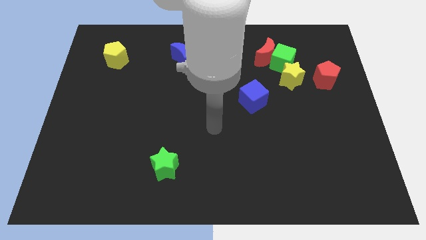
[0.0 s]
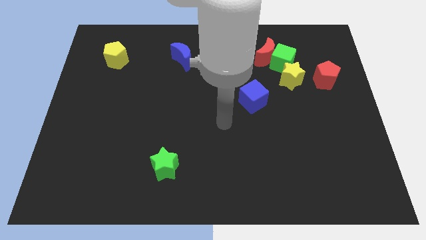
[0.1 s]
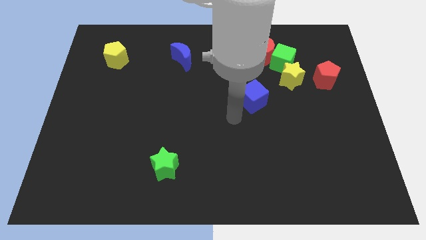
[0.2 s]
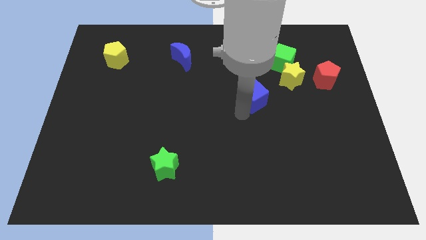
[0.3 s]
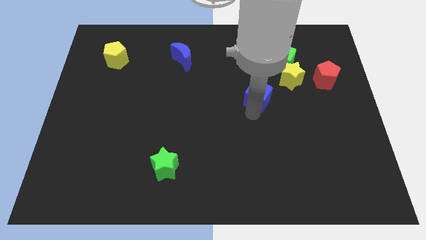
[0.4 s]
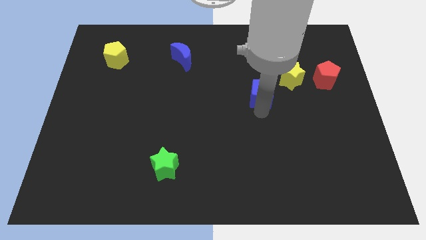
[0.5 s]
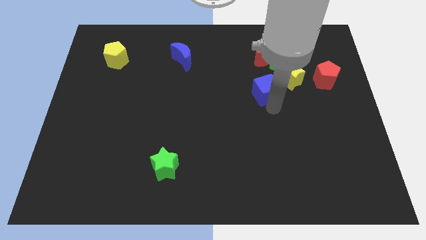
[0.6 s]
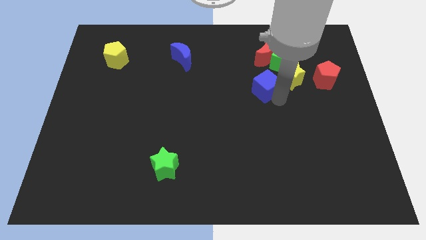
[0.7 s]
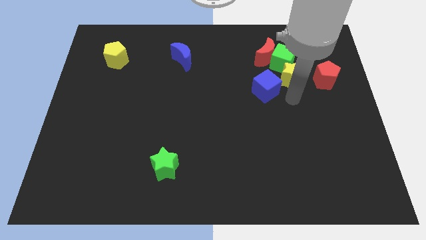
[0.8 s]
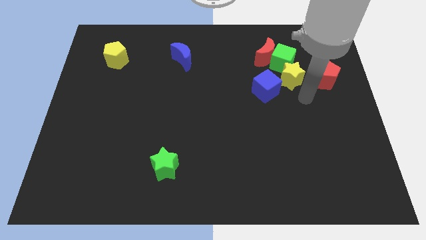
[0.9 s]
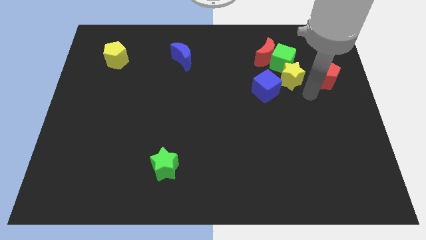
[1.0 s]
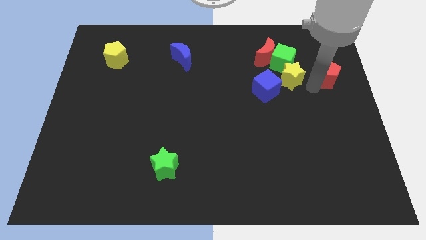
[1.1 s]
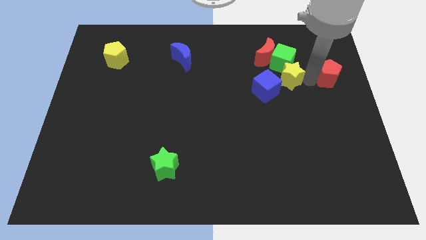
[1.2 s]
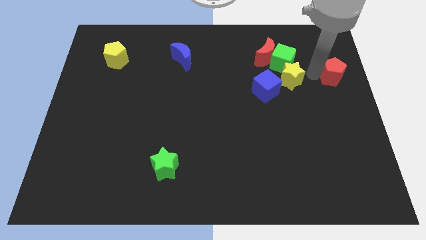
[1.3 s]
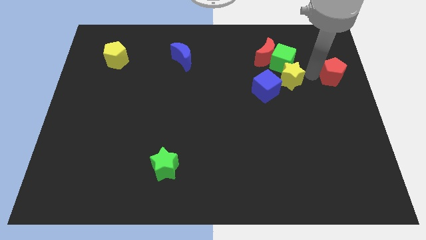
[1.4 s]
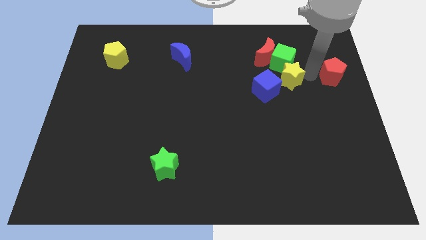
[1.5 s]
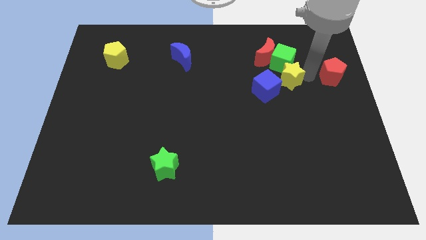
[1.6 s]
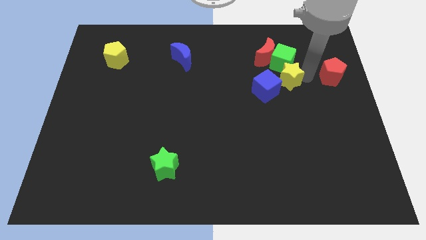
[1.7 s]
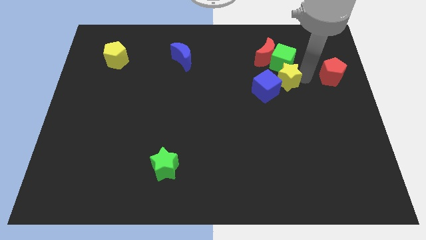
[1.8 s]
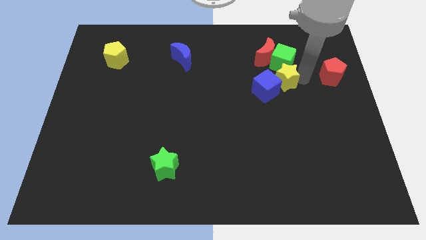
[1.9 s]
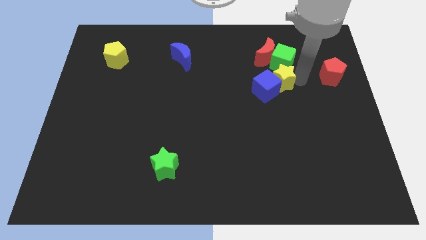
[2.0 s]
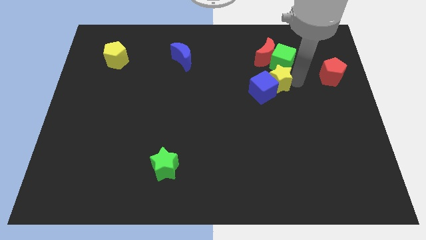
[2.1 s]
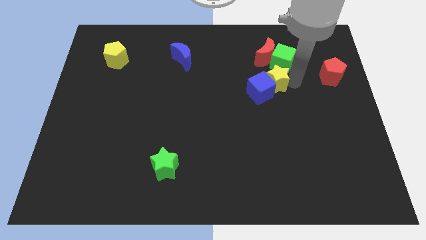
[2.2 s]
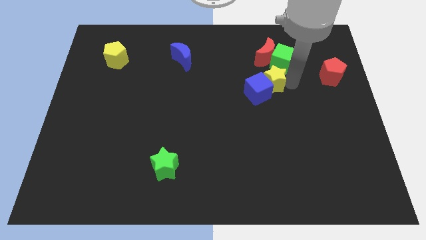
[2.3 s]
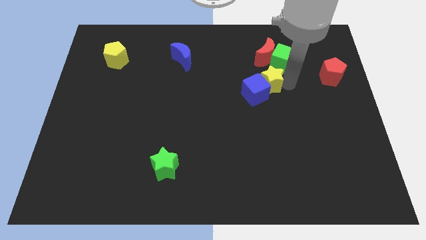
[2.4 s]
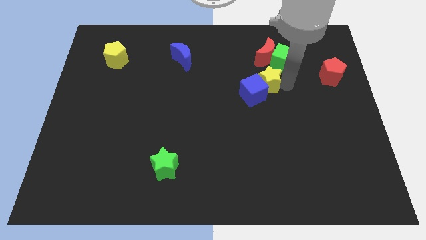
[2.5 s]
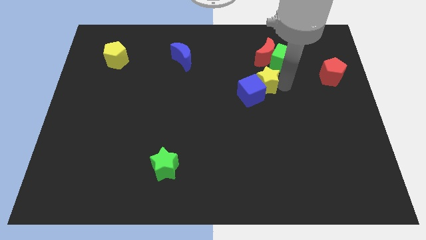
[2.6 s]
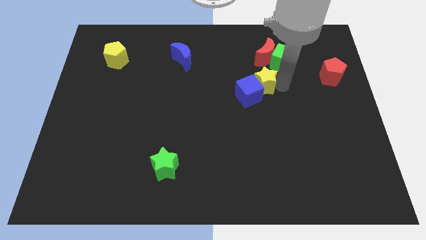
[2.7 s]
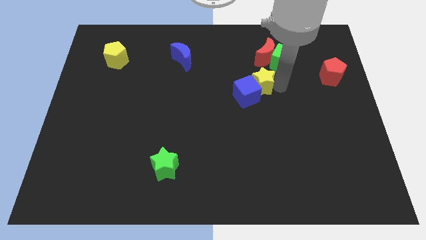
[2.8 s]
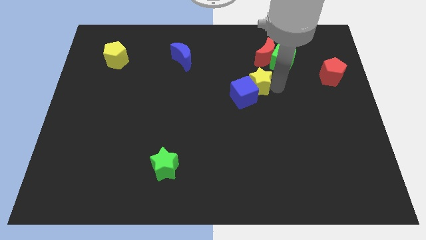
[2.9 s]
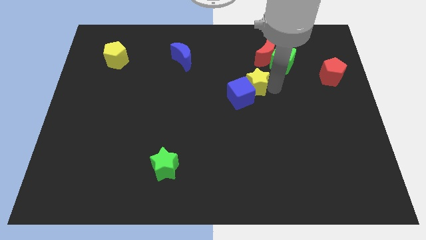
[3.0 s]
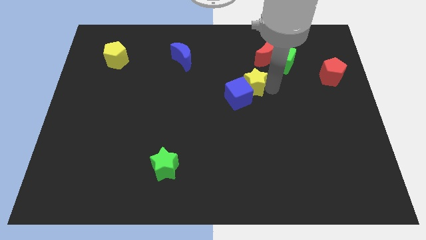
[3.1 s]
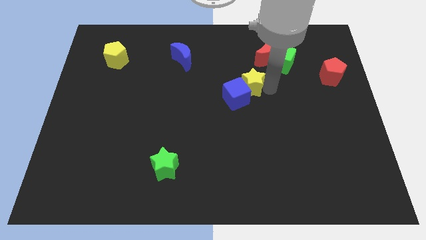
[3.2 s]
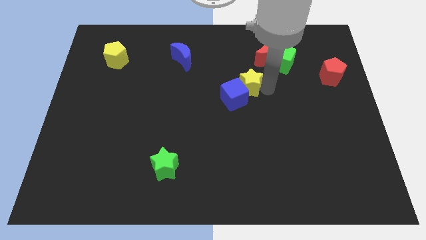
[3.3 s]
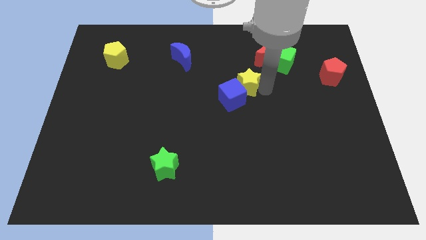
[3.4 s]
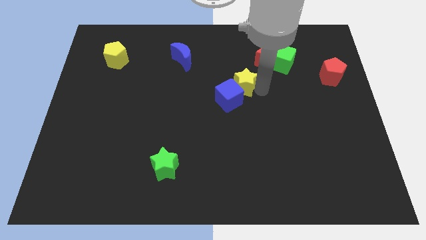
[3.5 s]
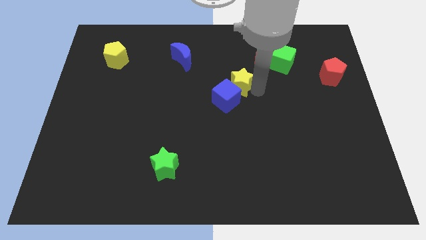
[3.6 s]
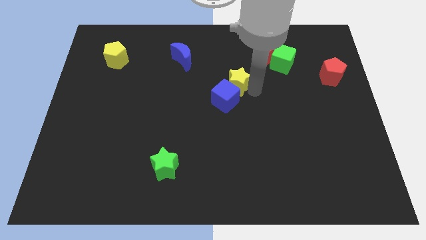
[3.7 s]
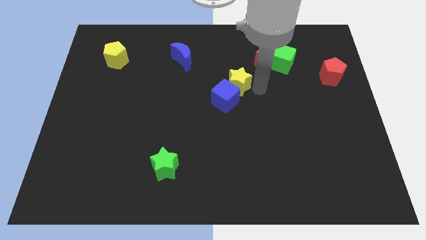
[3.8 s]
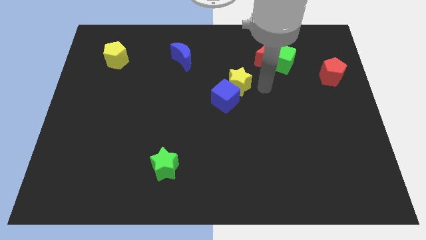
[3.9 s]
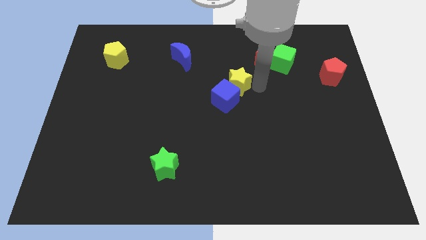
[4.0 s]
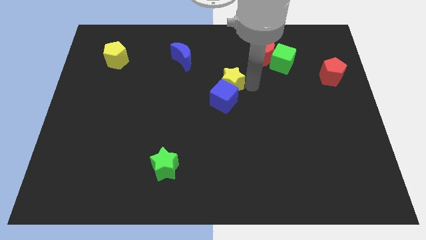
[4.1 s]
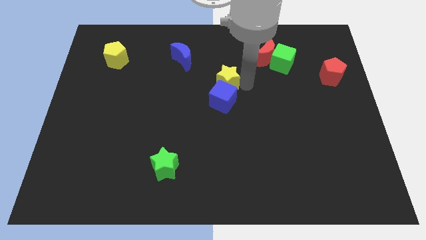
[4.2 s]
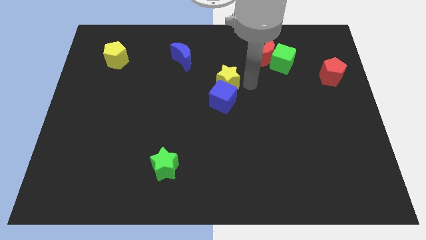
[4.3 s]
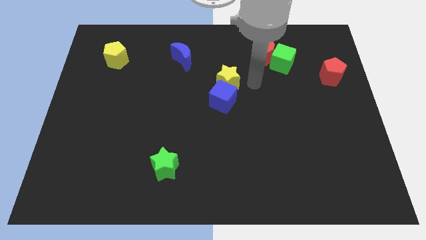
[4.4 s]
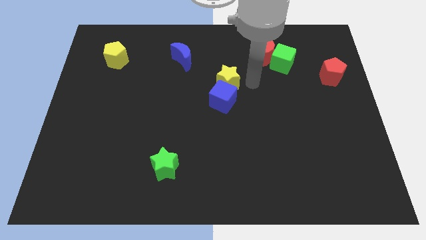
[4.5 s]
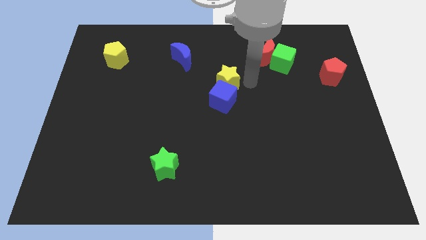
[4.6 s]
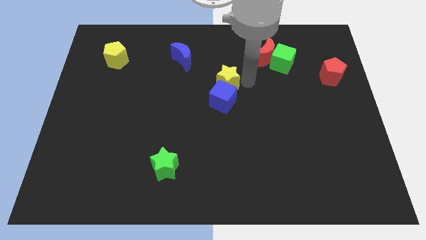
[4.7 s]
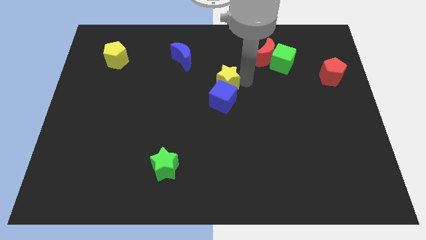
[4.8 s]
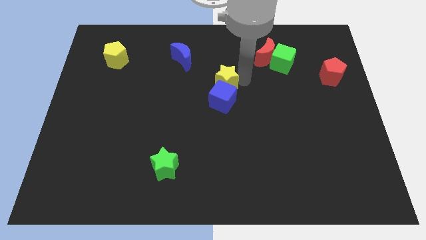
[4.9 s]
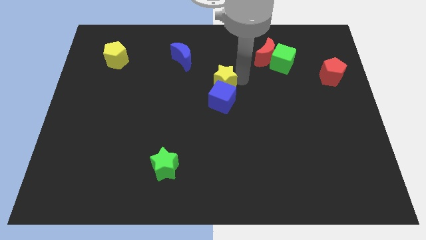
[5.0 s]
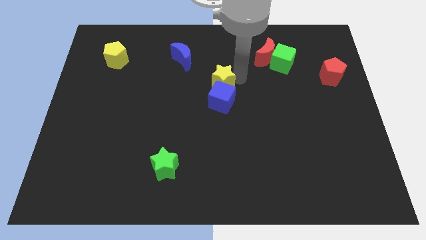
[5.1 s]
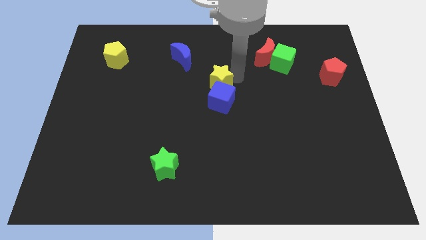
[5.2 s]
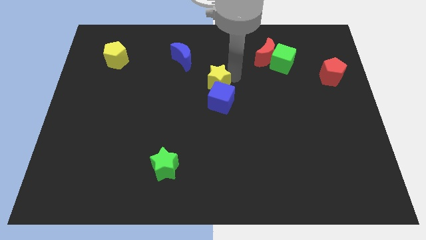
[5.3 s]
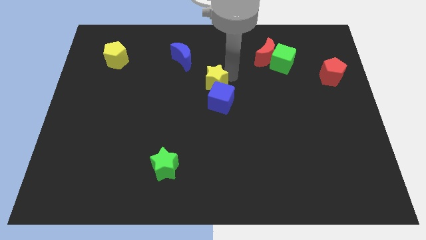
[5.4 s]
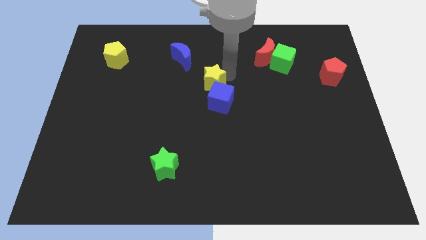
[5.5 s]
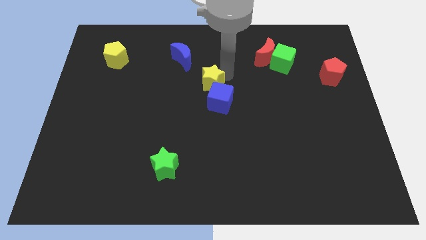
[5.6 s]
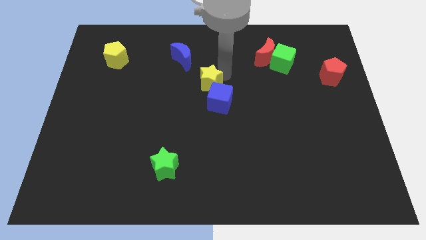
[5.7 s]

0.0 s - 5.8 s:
push the yellow star left

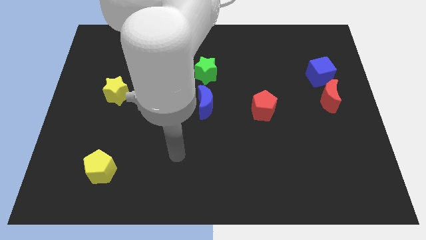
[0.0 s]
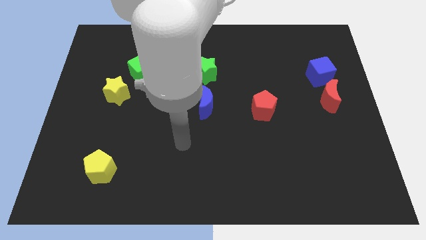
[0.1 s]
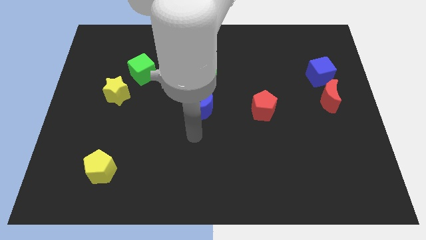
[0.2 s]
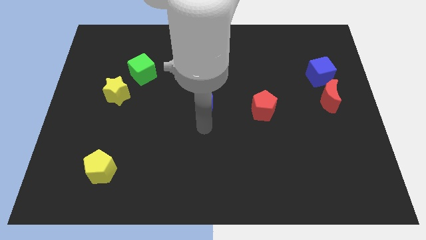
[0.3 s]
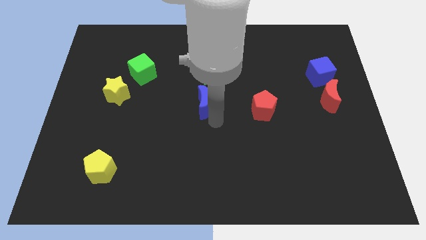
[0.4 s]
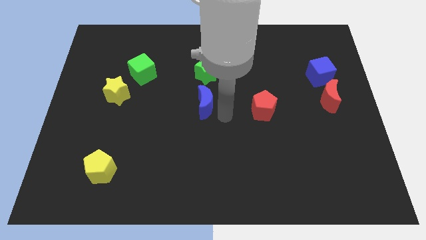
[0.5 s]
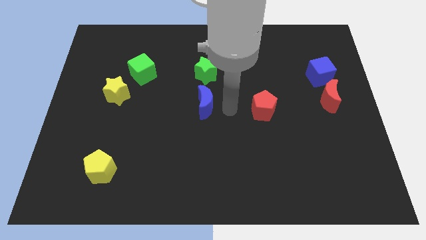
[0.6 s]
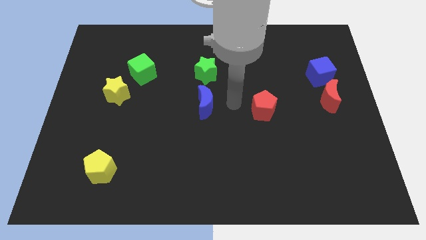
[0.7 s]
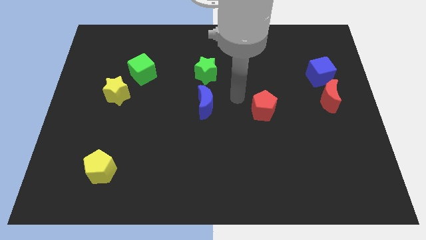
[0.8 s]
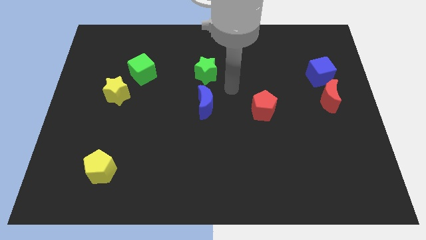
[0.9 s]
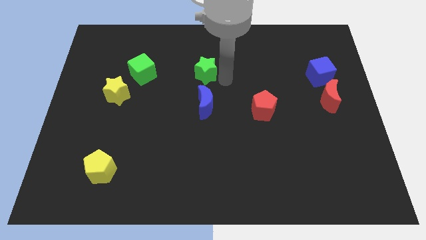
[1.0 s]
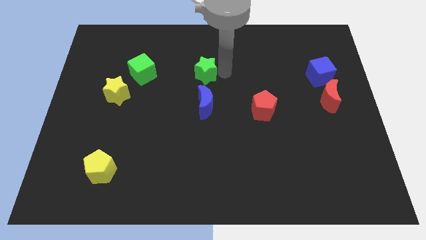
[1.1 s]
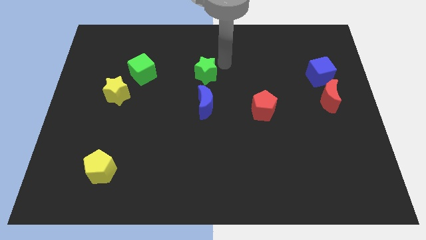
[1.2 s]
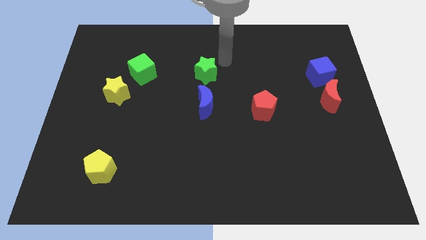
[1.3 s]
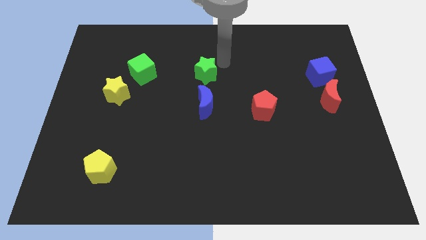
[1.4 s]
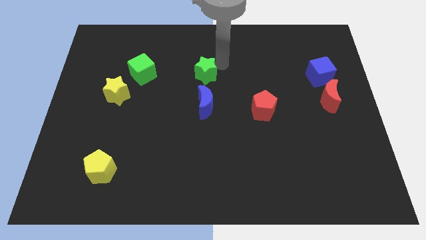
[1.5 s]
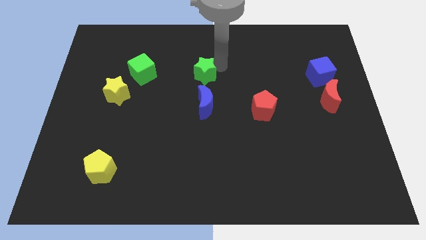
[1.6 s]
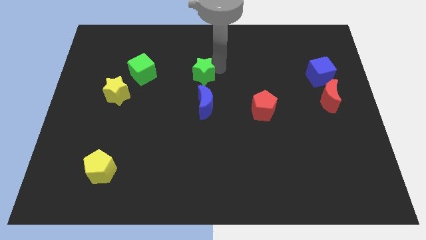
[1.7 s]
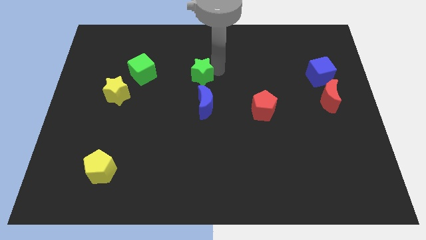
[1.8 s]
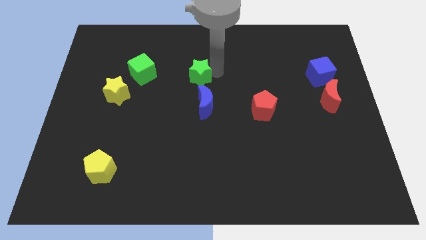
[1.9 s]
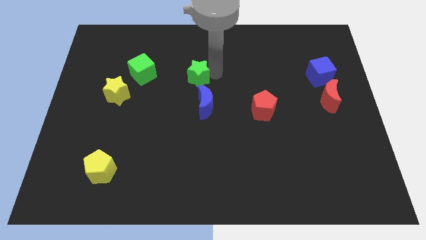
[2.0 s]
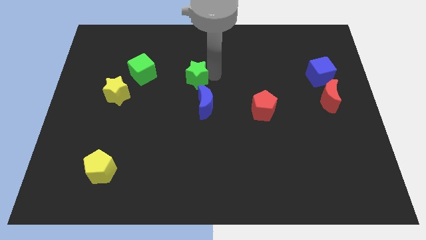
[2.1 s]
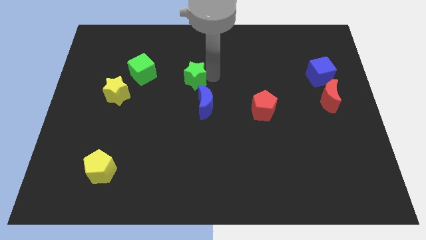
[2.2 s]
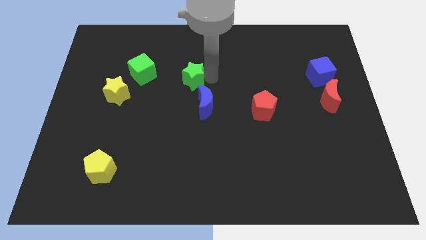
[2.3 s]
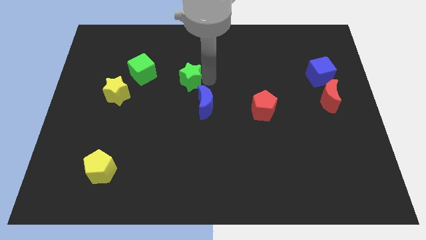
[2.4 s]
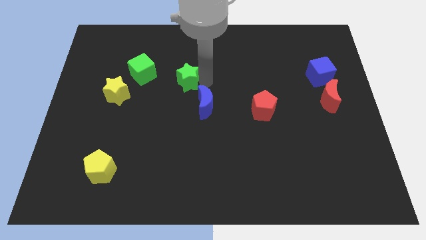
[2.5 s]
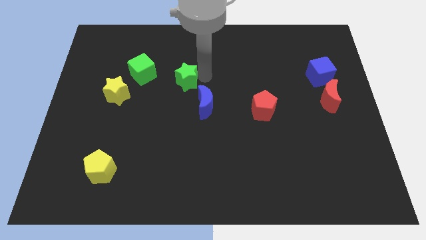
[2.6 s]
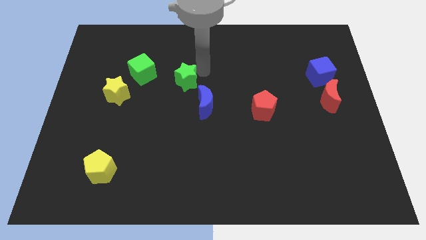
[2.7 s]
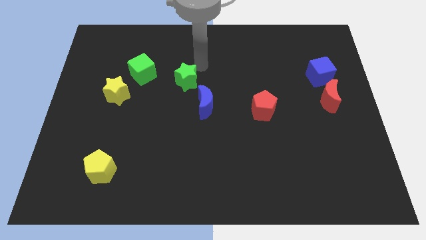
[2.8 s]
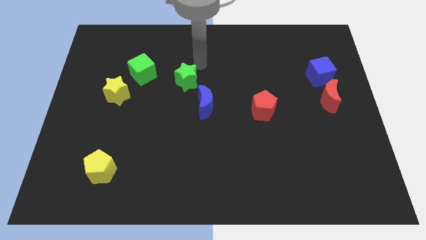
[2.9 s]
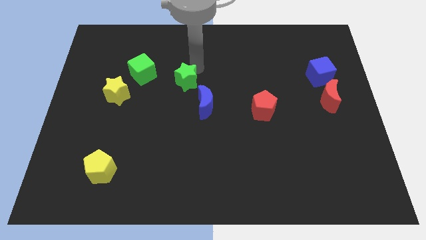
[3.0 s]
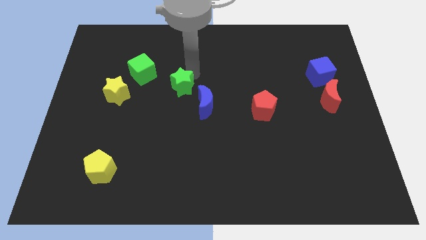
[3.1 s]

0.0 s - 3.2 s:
slightly slide the green star diagonally downwards and left
